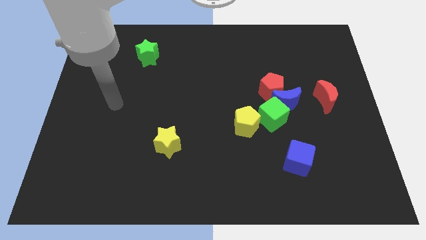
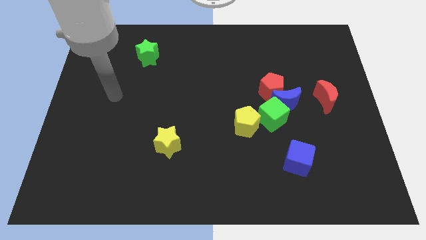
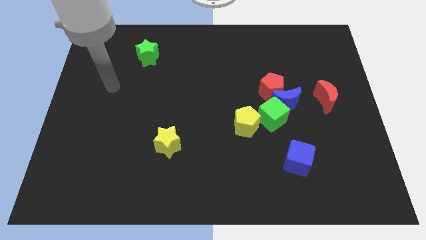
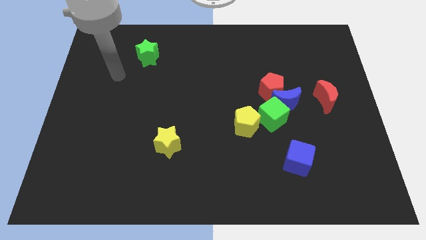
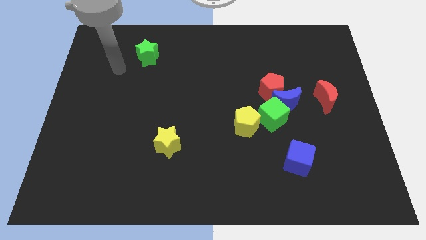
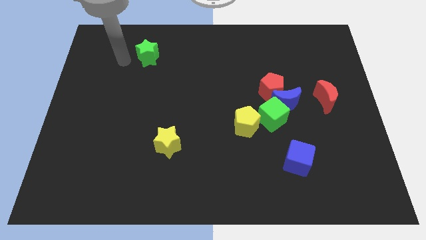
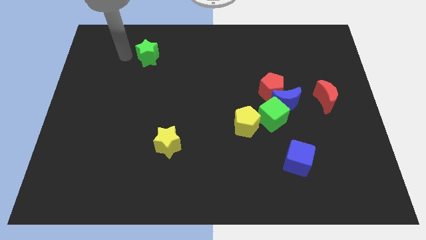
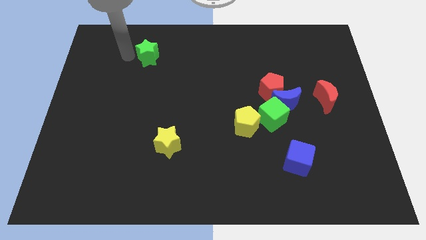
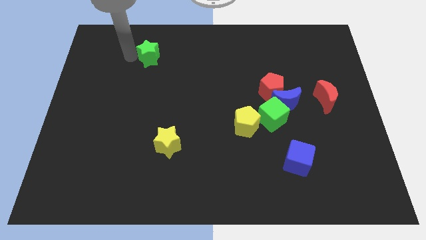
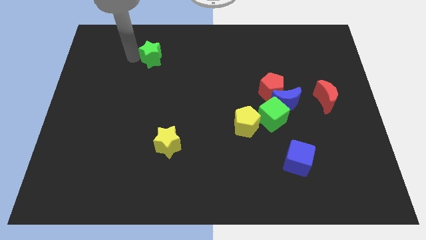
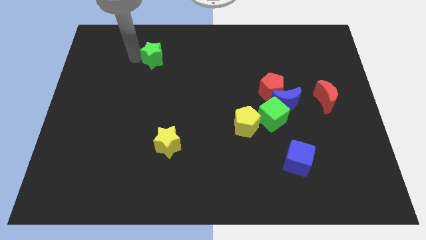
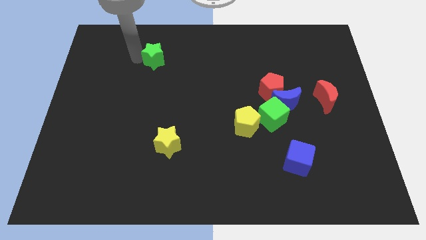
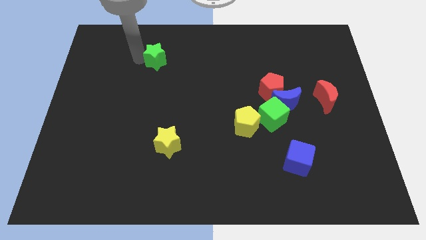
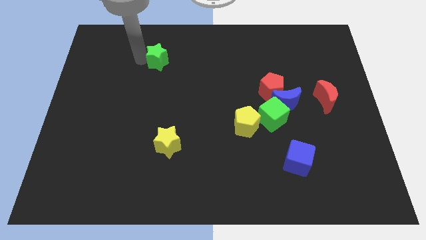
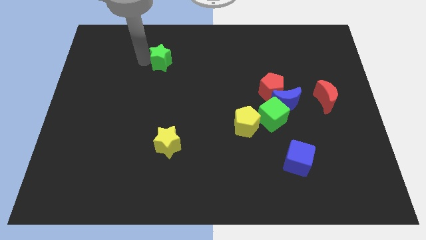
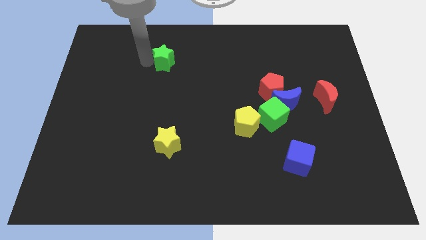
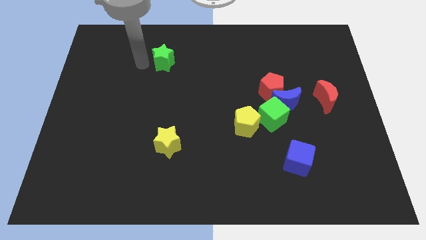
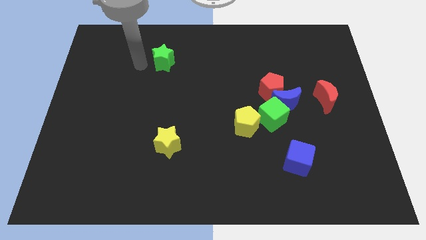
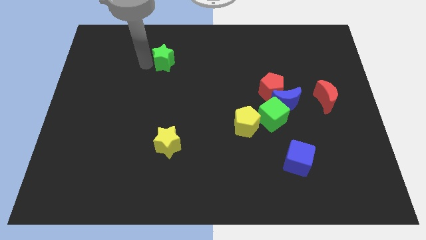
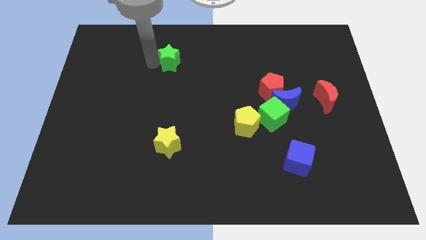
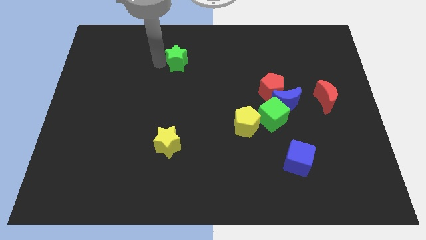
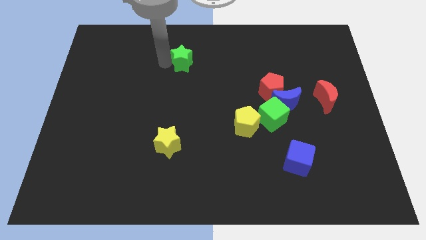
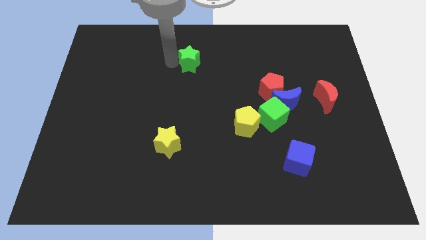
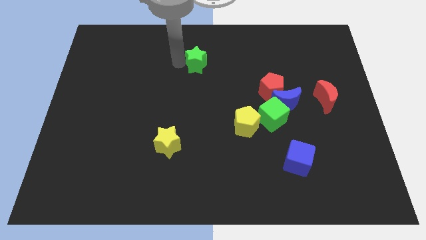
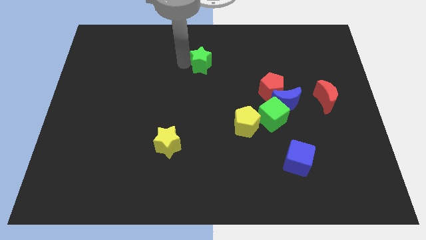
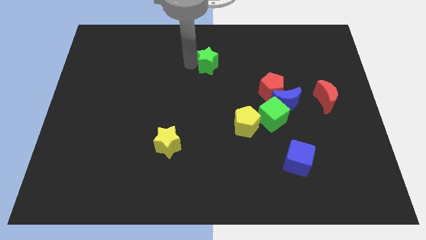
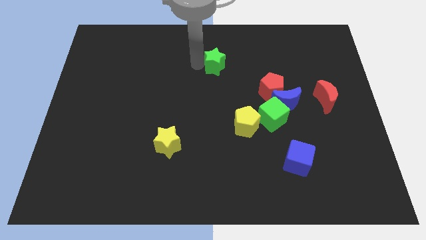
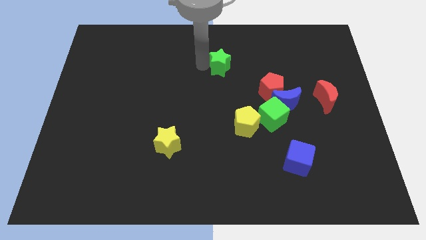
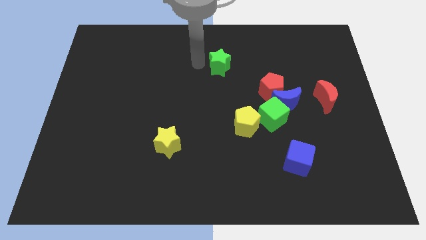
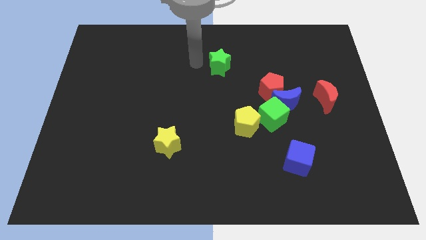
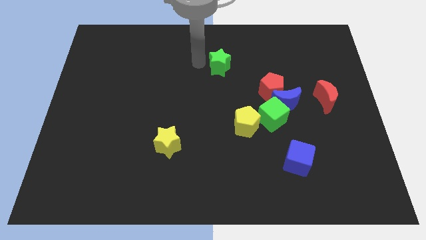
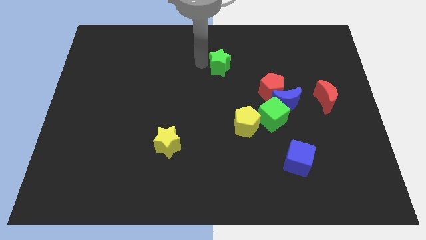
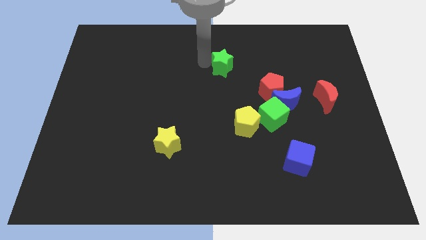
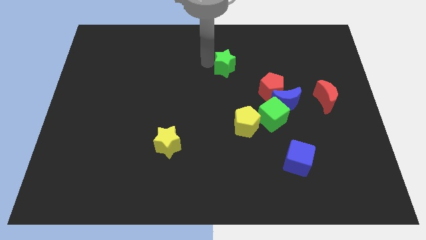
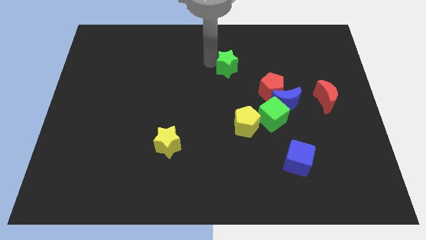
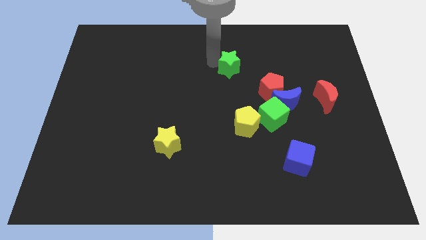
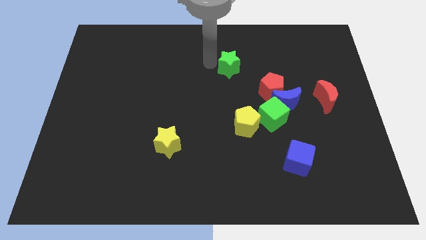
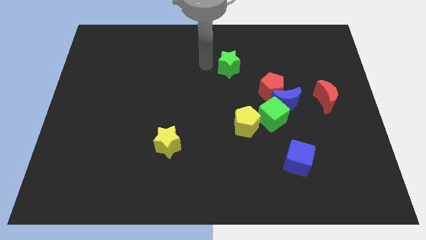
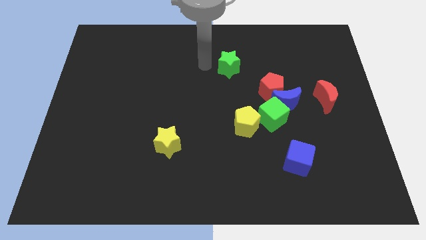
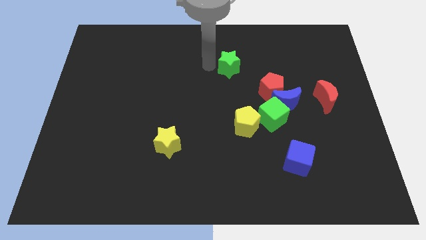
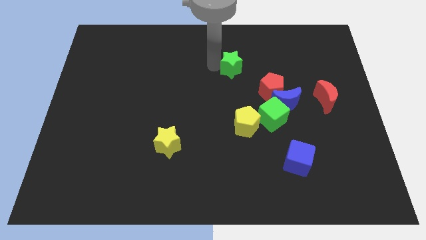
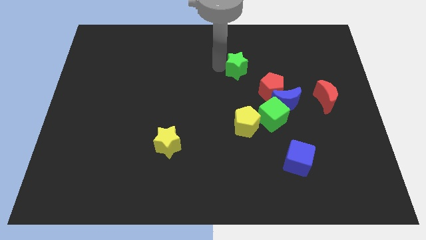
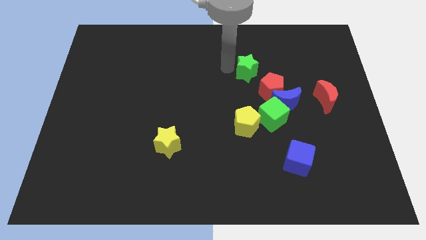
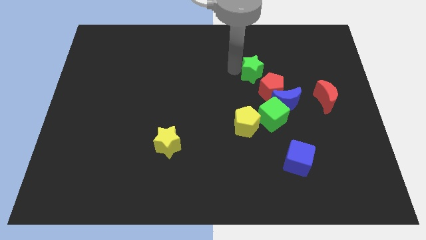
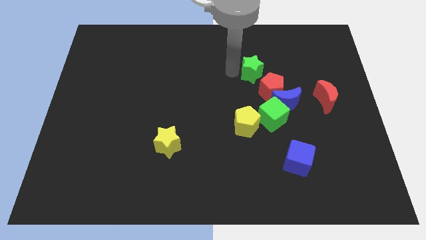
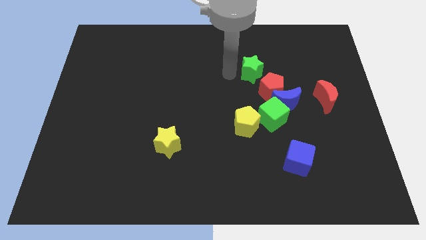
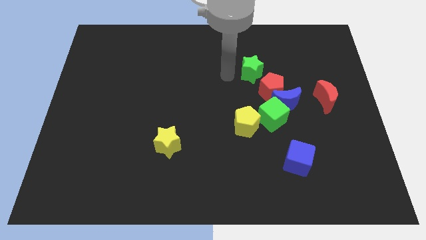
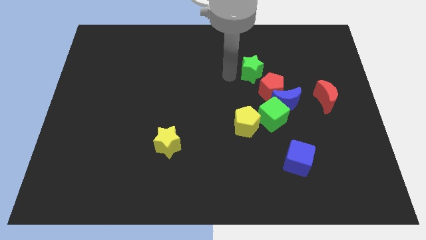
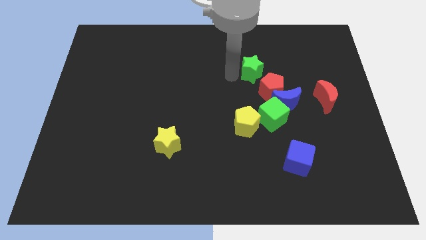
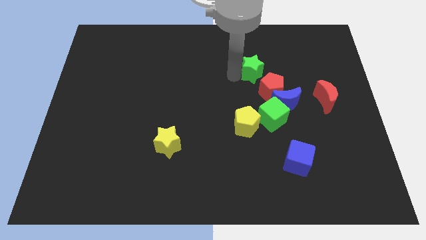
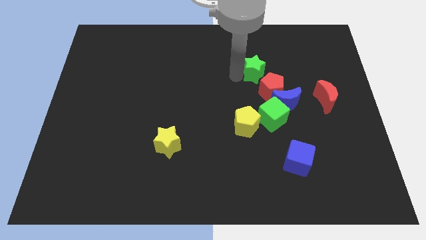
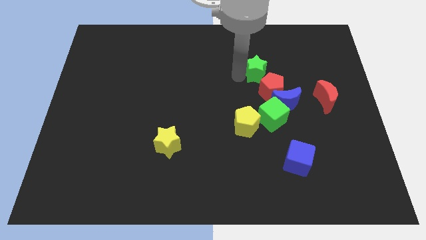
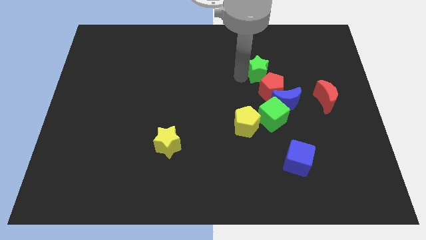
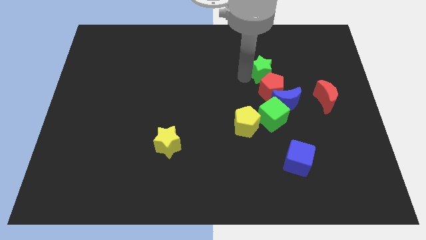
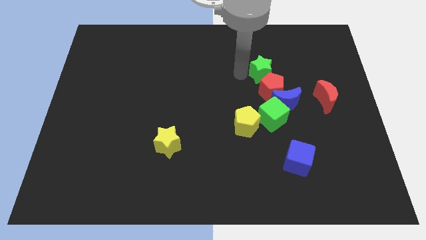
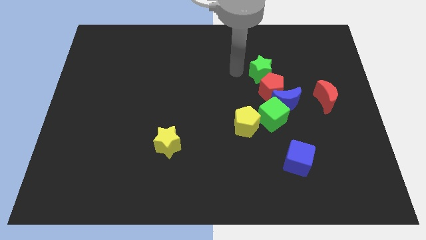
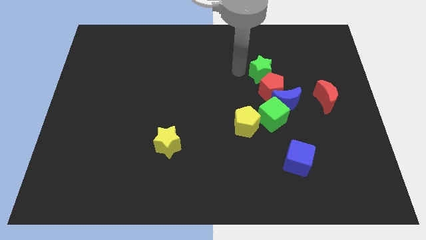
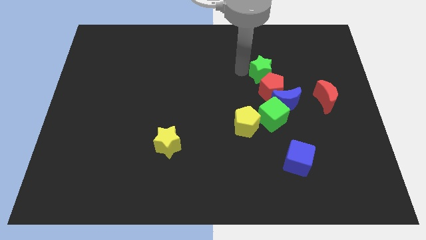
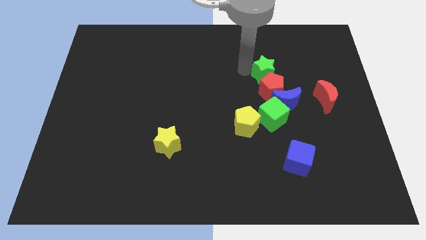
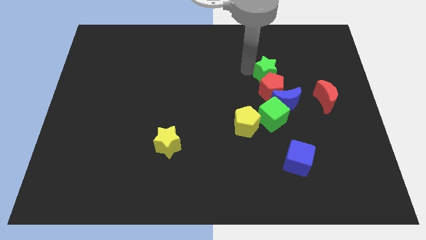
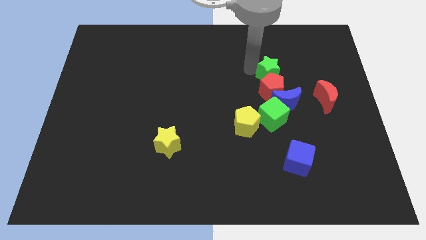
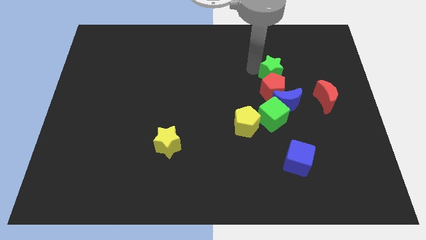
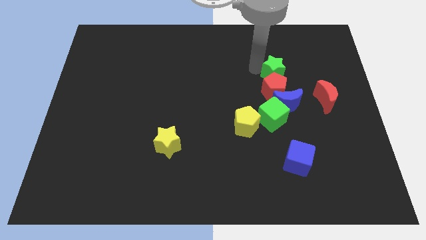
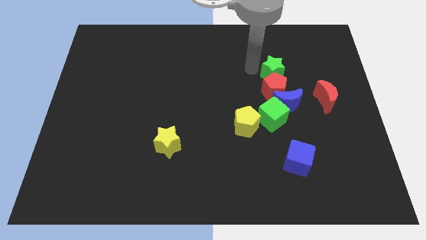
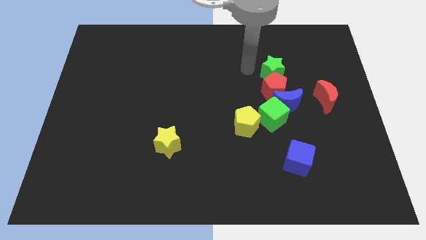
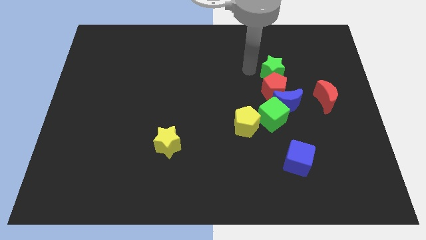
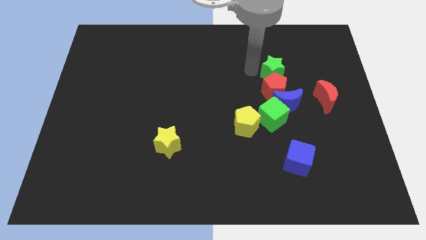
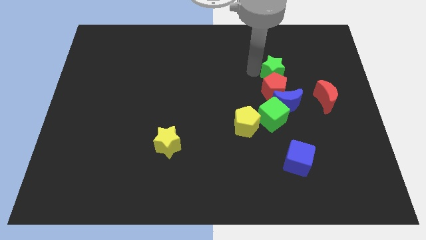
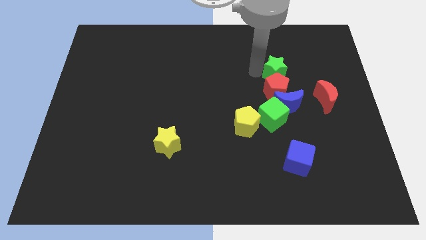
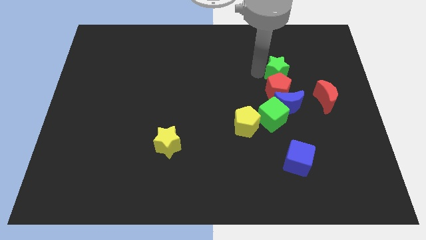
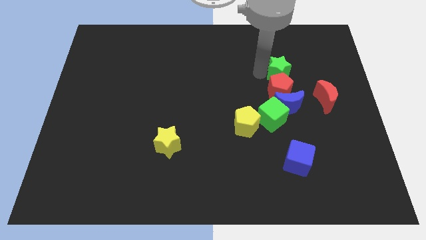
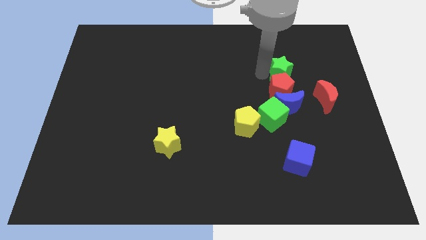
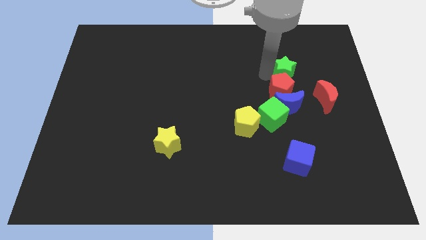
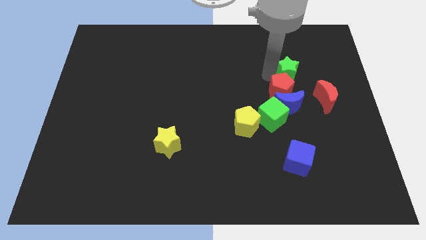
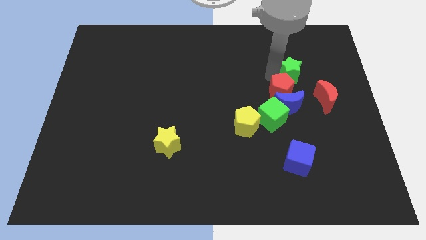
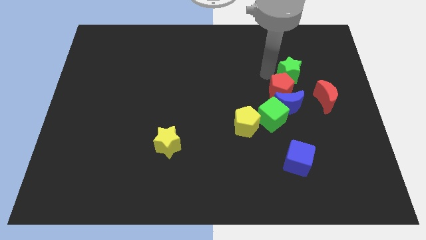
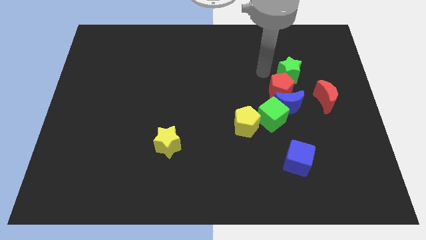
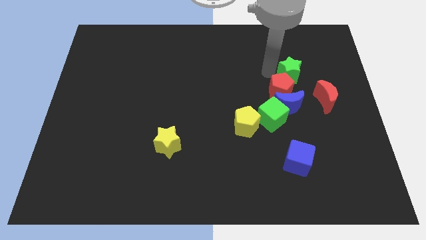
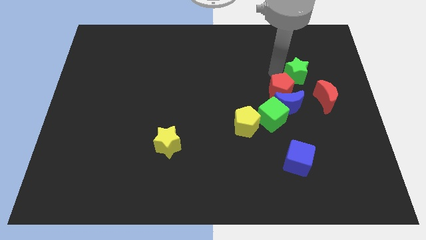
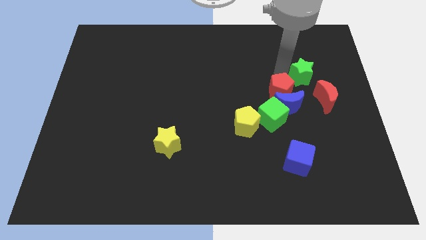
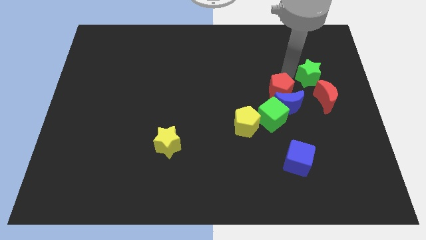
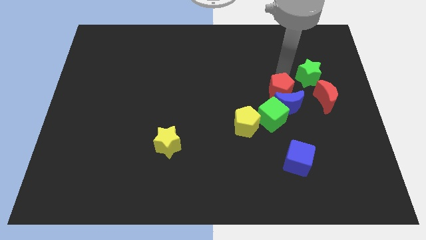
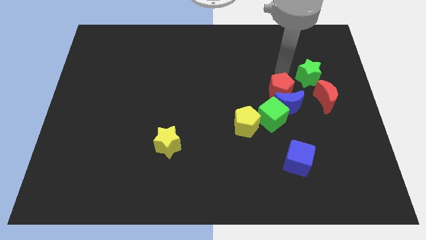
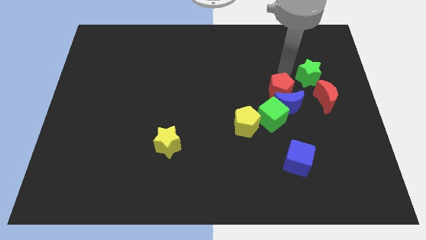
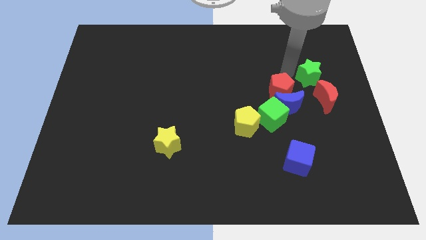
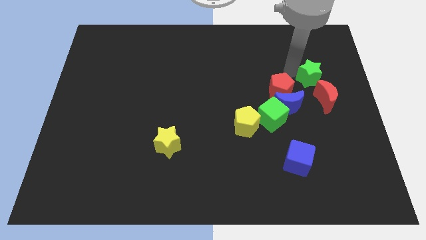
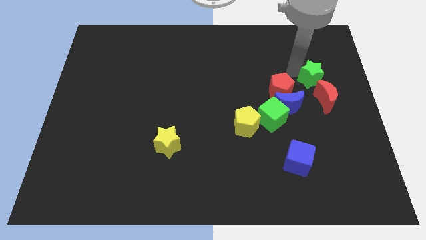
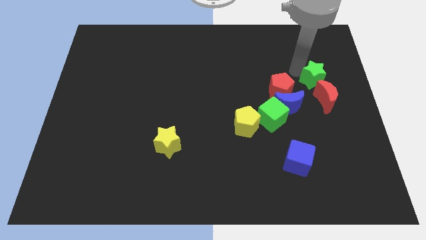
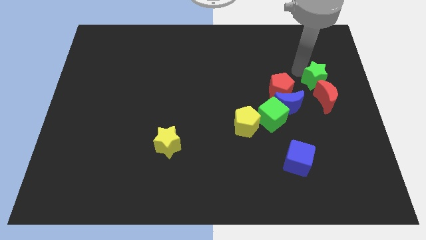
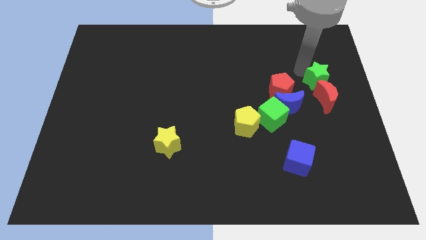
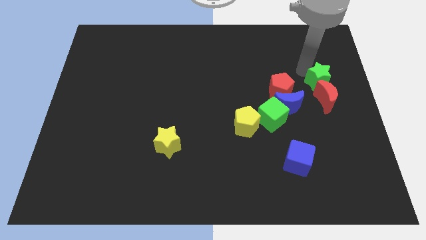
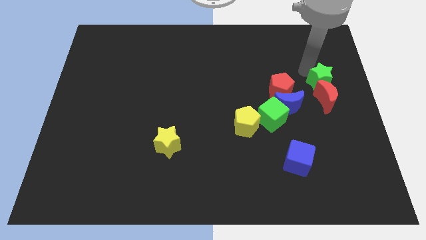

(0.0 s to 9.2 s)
put the green star to the right side
